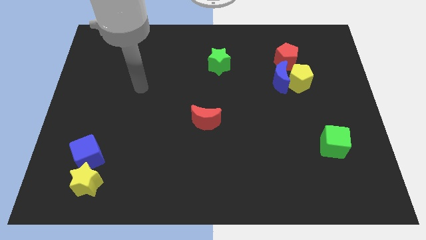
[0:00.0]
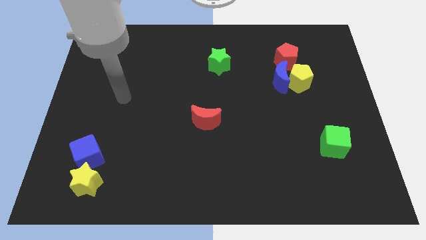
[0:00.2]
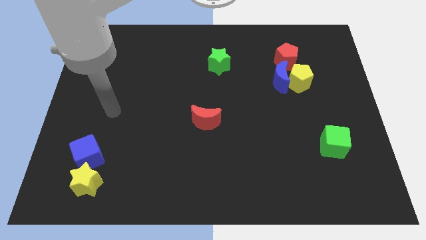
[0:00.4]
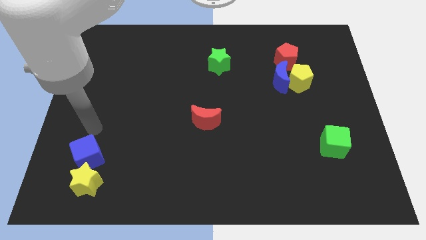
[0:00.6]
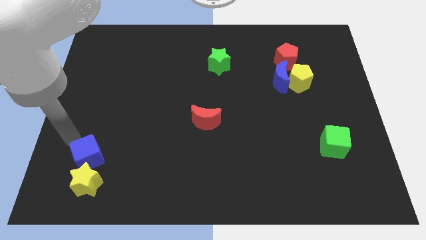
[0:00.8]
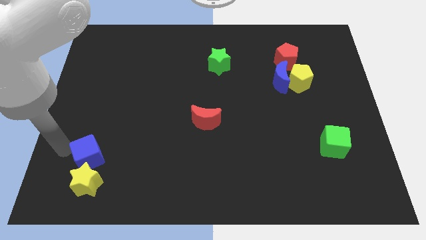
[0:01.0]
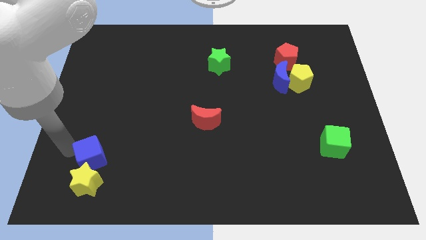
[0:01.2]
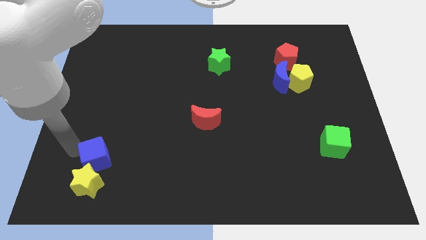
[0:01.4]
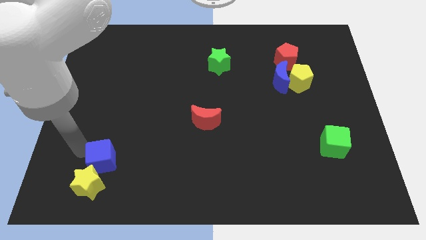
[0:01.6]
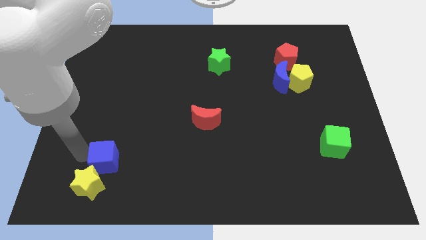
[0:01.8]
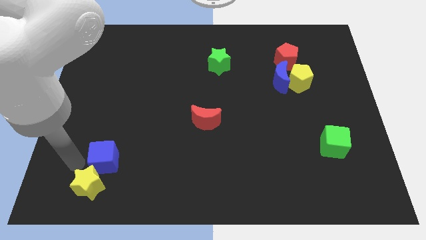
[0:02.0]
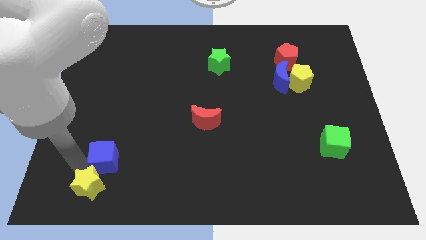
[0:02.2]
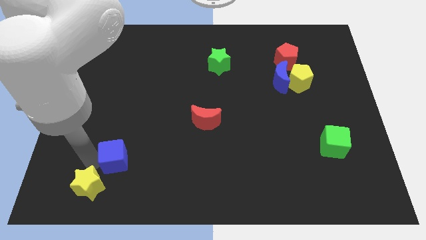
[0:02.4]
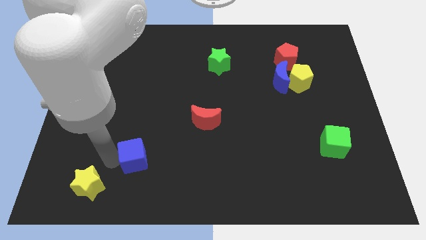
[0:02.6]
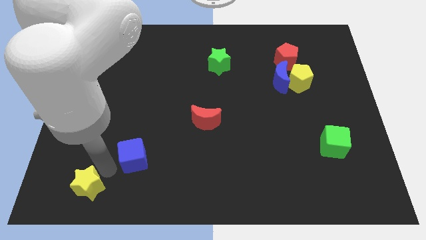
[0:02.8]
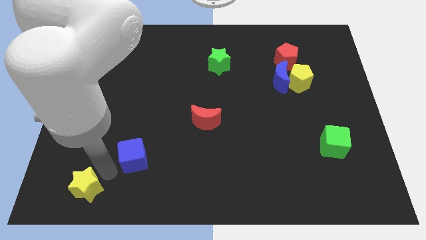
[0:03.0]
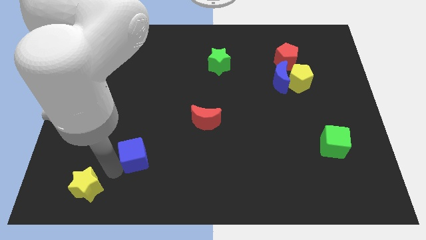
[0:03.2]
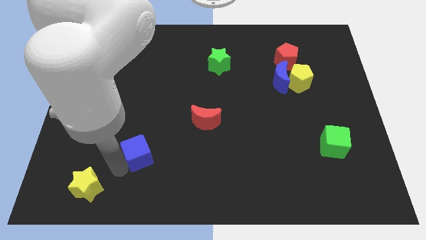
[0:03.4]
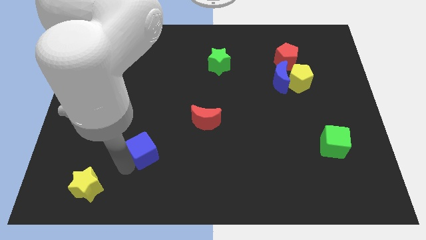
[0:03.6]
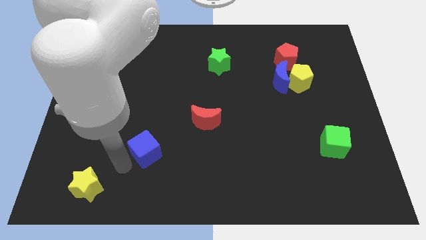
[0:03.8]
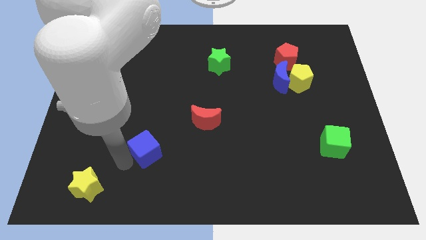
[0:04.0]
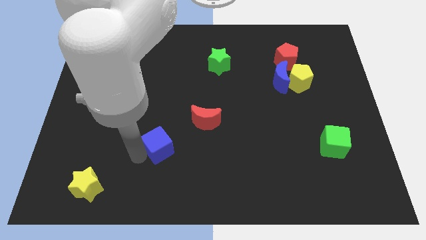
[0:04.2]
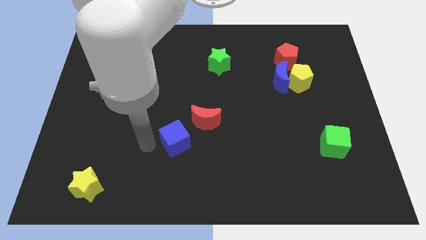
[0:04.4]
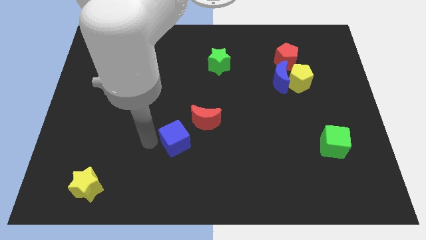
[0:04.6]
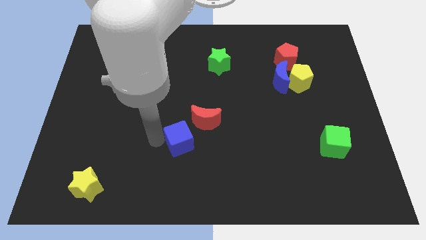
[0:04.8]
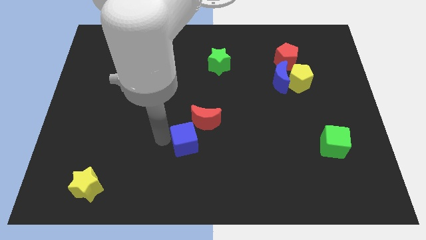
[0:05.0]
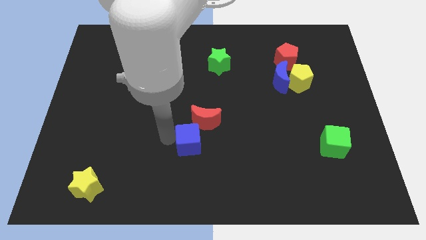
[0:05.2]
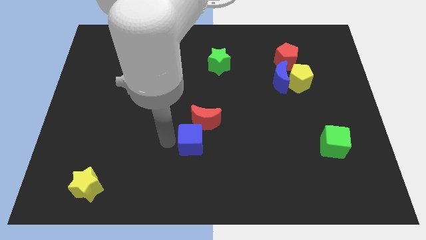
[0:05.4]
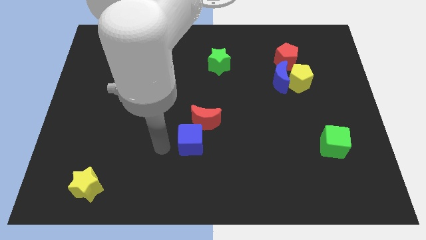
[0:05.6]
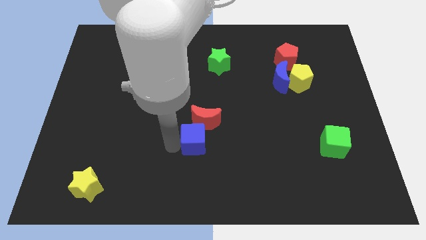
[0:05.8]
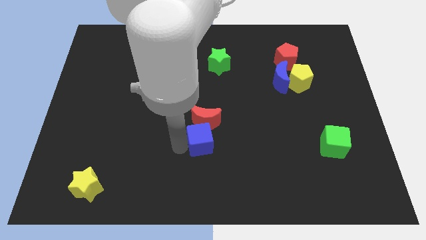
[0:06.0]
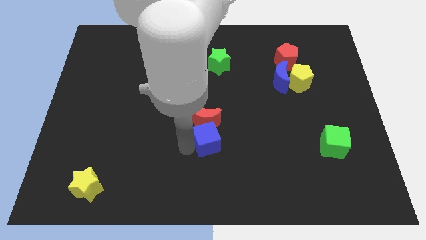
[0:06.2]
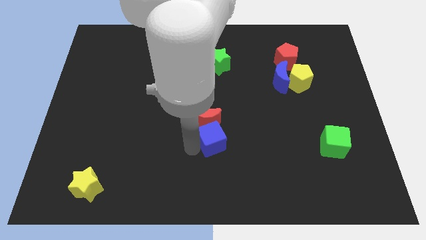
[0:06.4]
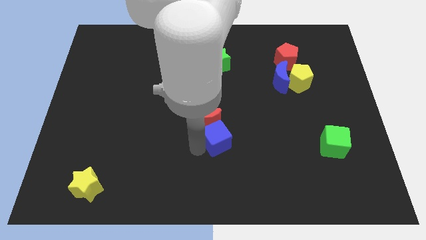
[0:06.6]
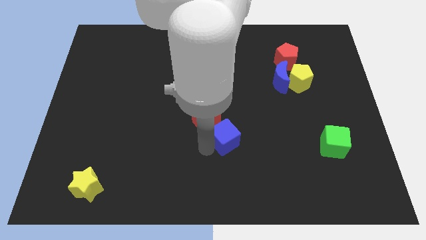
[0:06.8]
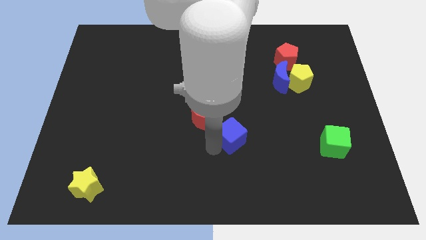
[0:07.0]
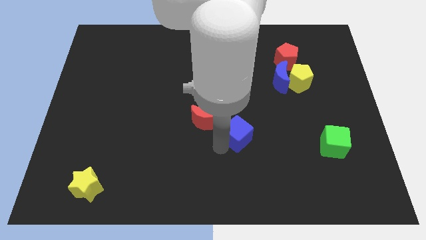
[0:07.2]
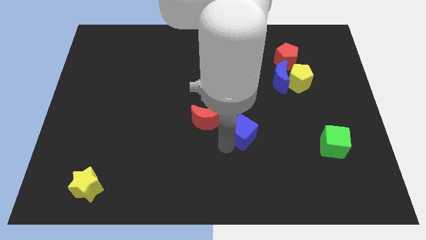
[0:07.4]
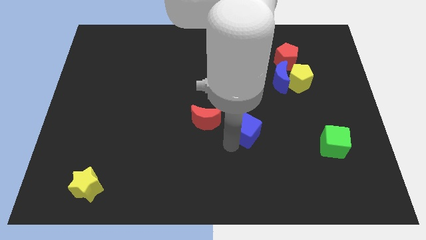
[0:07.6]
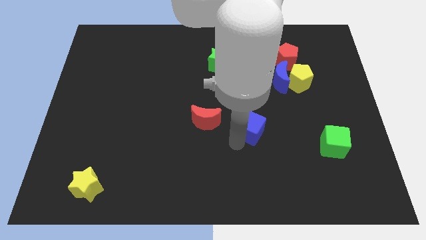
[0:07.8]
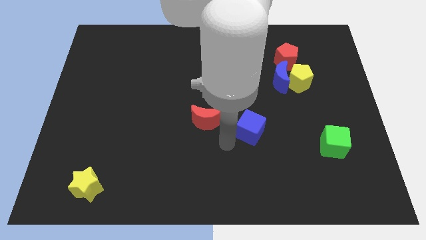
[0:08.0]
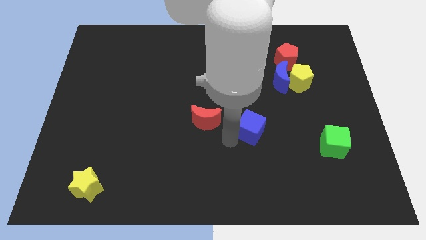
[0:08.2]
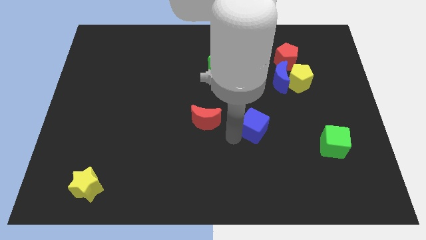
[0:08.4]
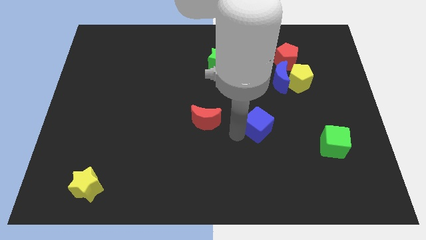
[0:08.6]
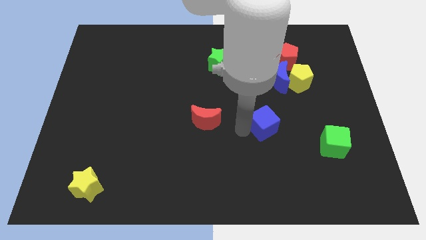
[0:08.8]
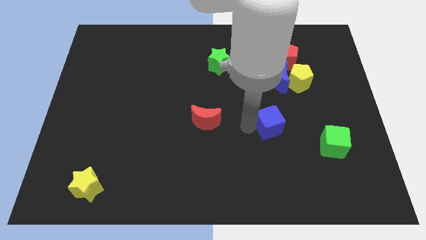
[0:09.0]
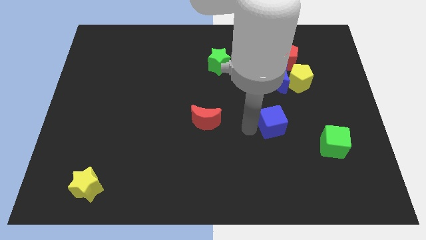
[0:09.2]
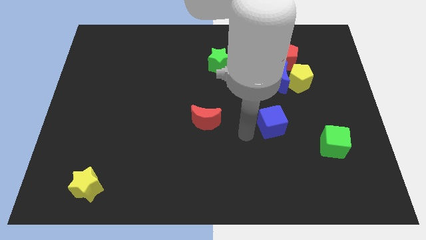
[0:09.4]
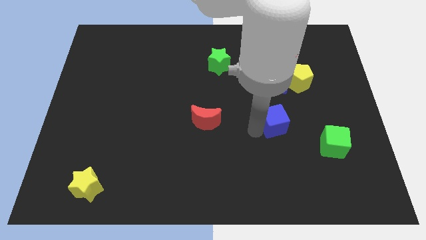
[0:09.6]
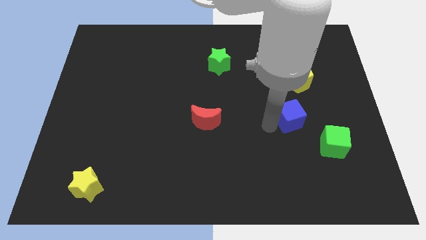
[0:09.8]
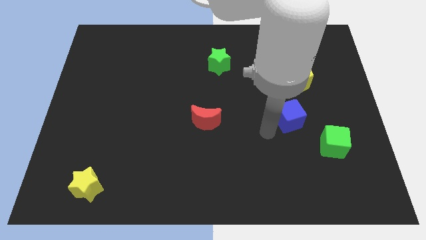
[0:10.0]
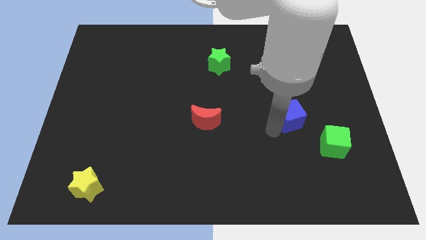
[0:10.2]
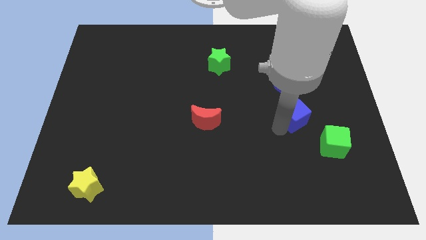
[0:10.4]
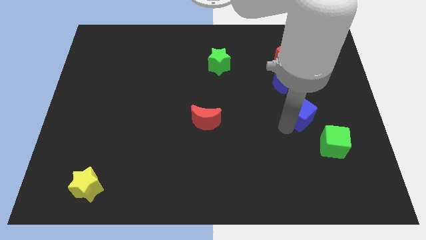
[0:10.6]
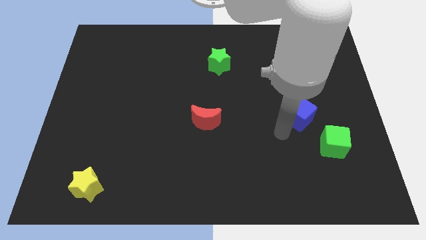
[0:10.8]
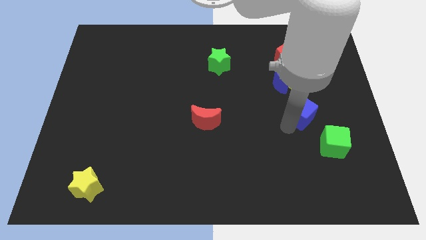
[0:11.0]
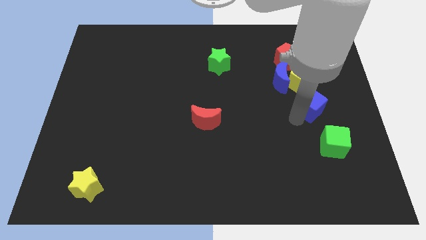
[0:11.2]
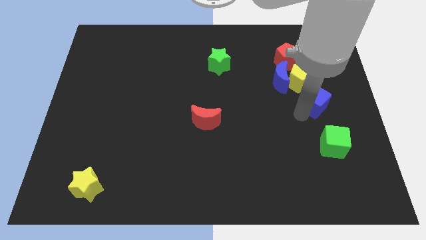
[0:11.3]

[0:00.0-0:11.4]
slide the blue cube diagonally down and to the right of the yellow pentagon

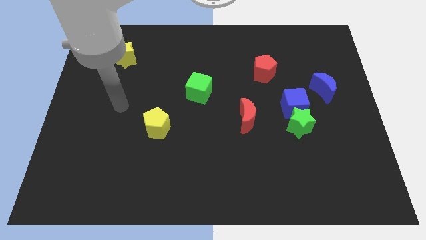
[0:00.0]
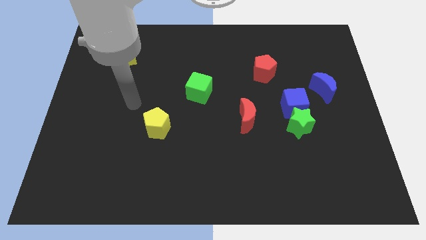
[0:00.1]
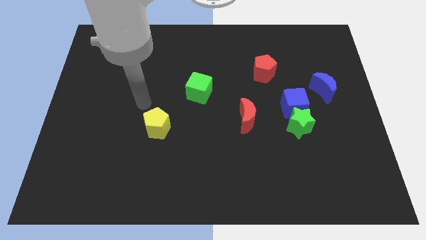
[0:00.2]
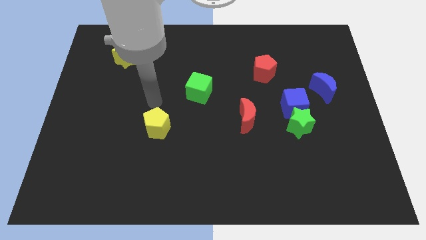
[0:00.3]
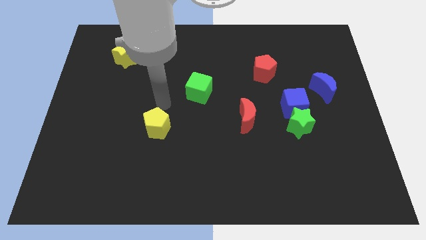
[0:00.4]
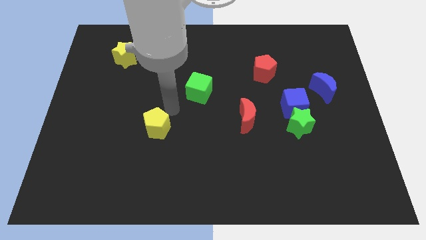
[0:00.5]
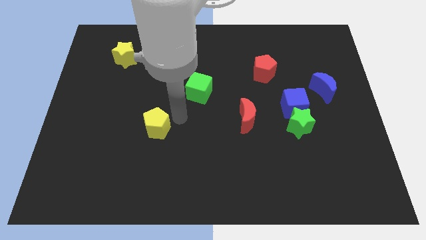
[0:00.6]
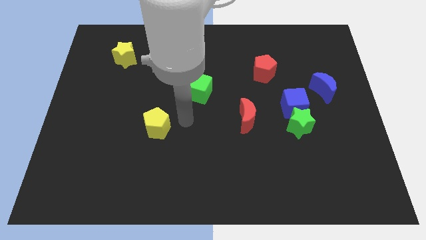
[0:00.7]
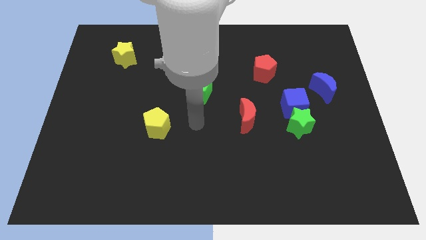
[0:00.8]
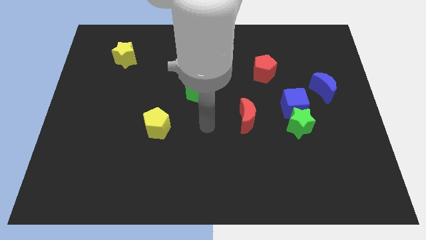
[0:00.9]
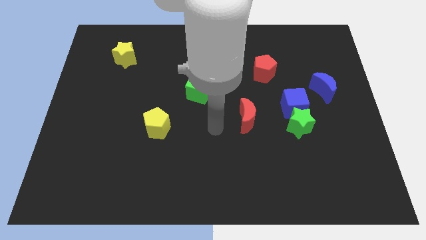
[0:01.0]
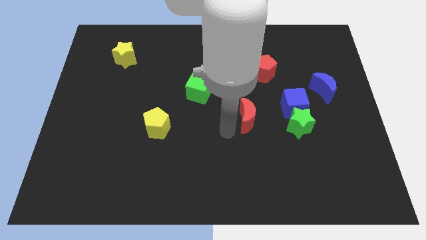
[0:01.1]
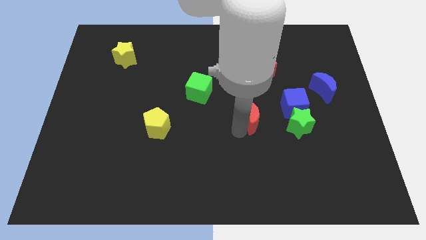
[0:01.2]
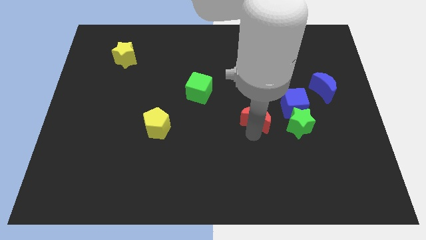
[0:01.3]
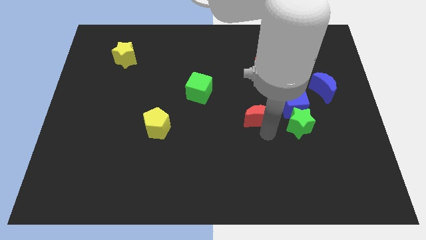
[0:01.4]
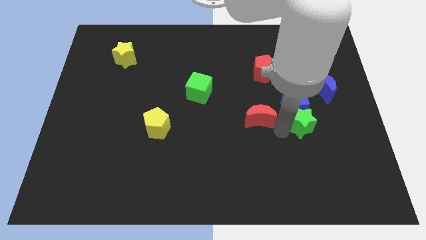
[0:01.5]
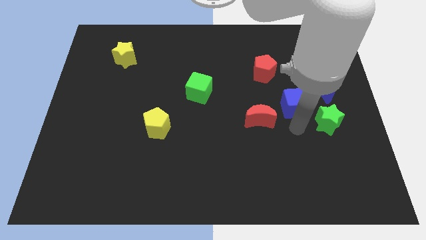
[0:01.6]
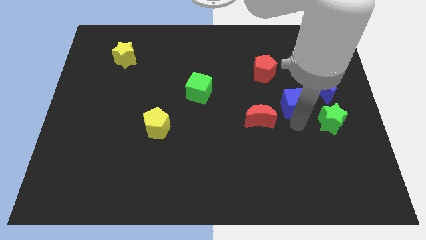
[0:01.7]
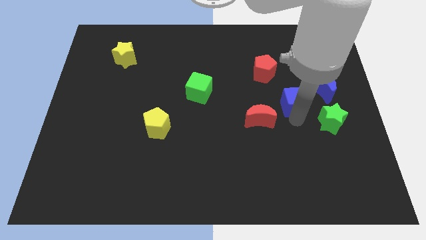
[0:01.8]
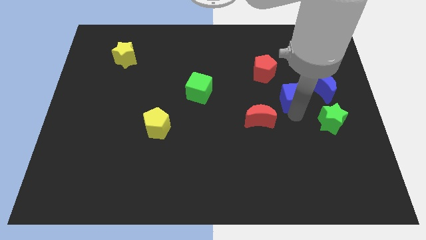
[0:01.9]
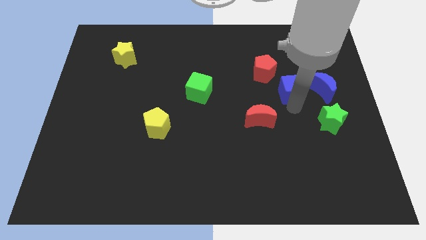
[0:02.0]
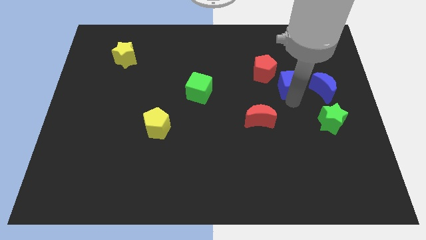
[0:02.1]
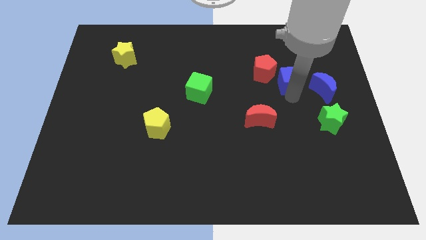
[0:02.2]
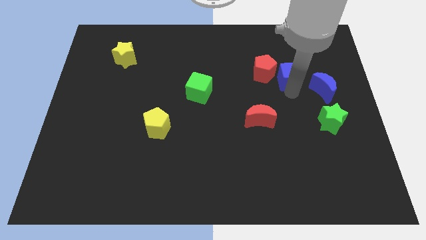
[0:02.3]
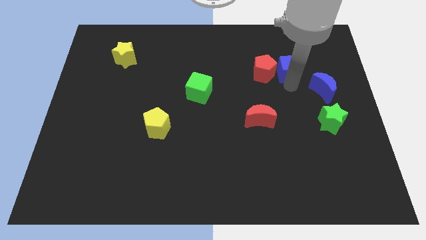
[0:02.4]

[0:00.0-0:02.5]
put the blue cube diagonally up and to the right of the red pentagon
